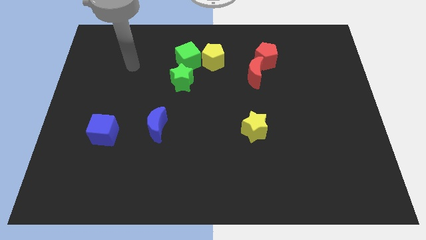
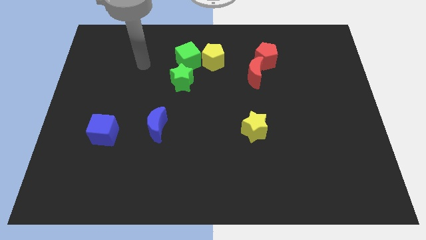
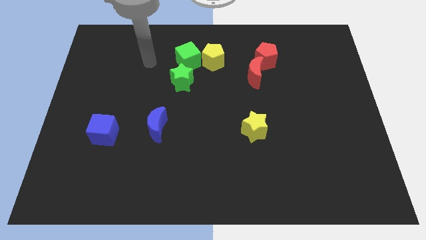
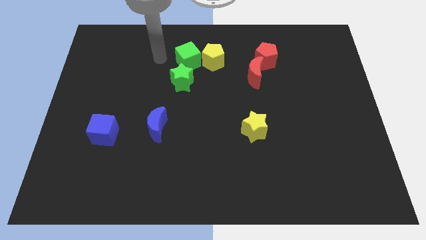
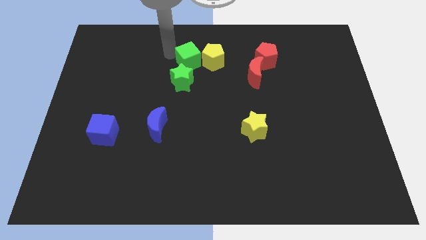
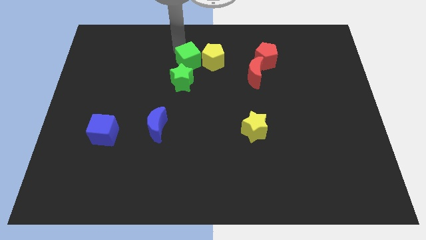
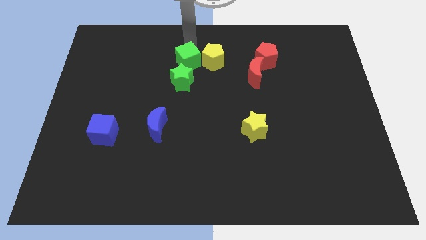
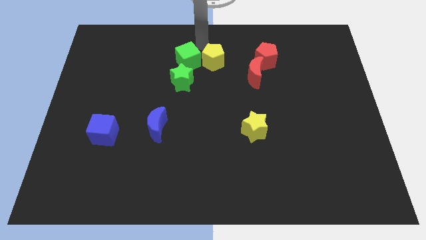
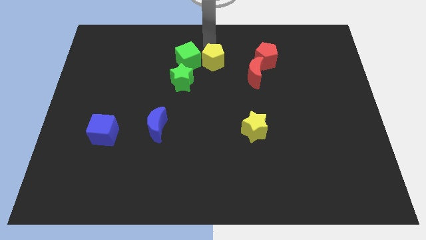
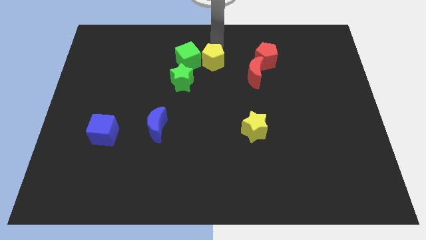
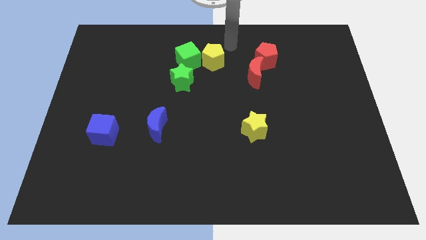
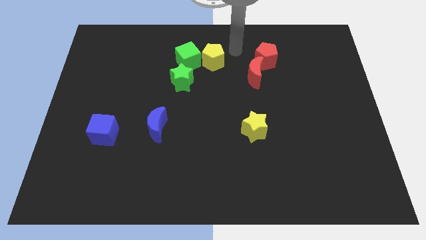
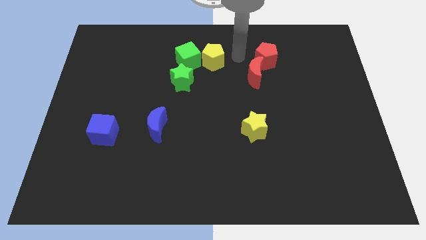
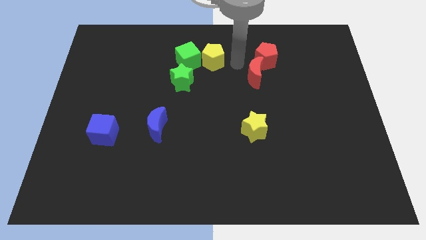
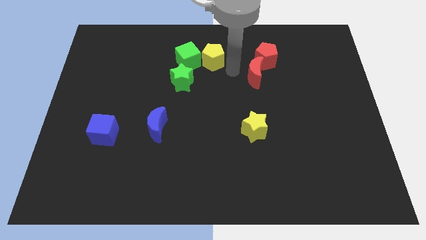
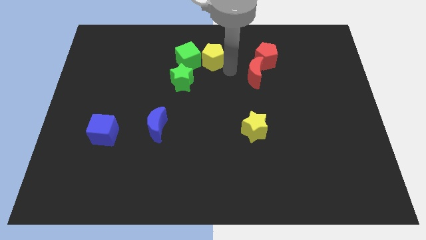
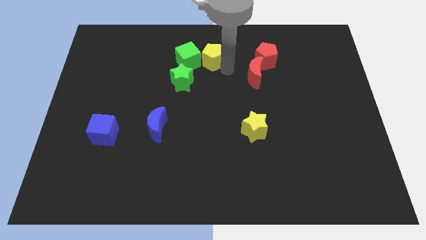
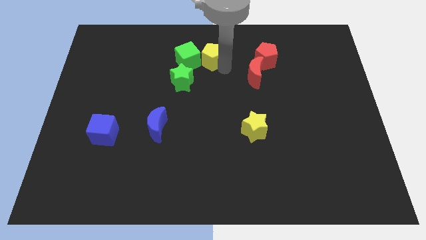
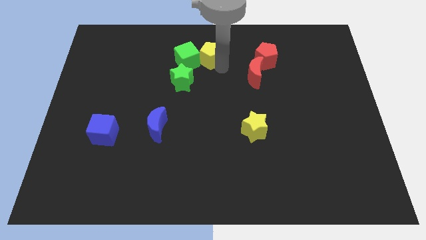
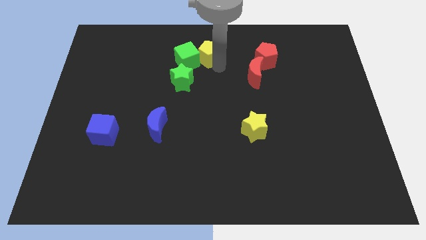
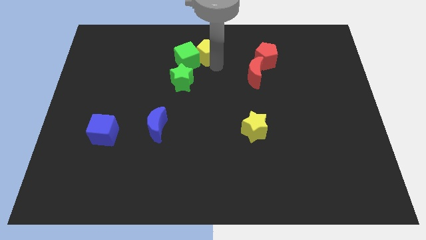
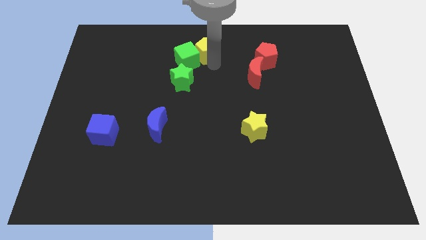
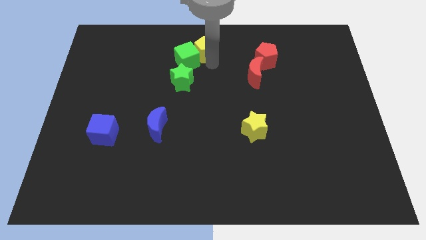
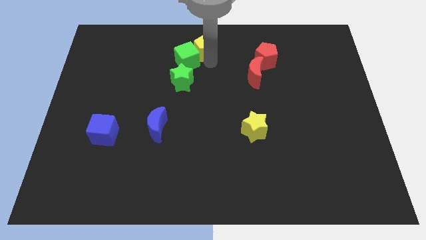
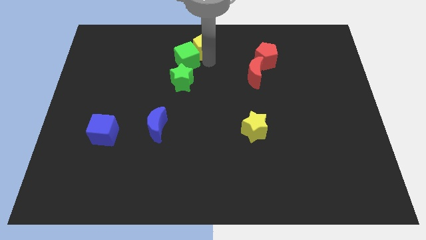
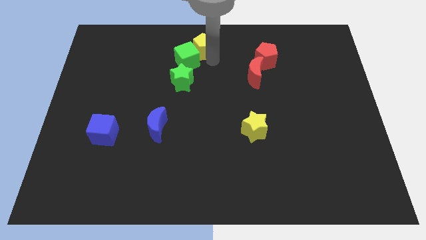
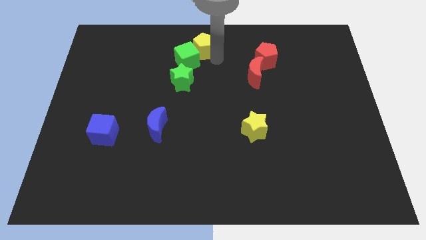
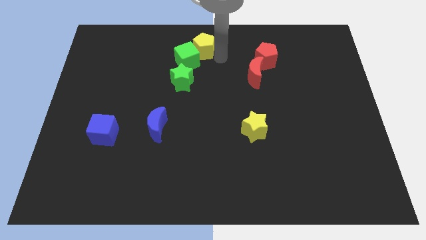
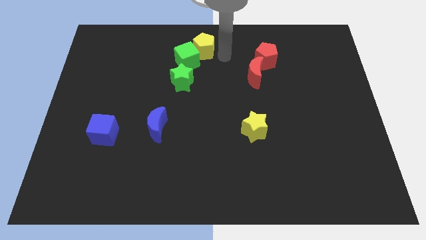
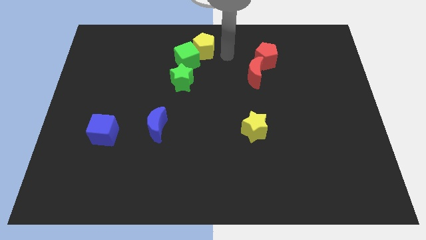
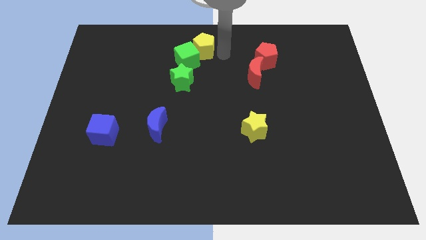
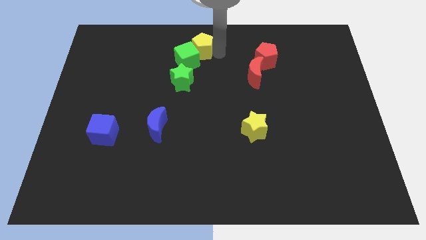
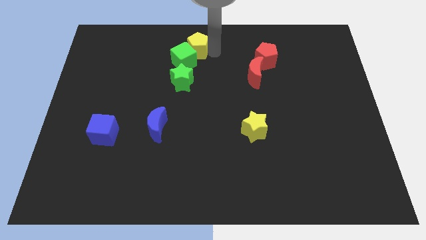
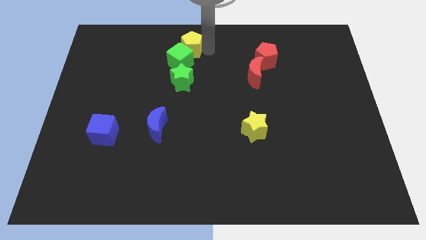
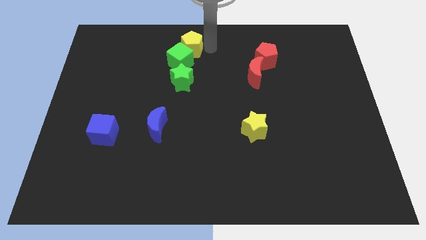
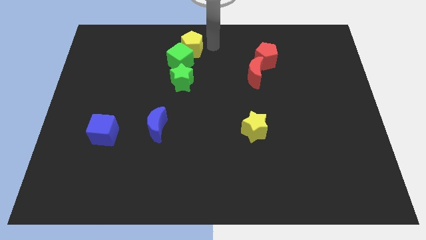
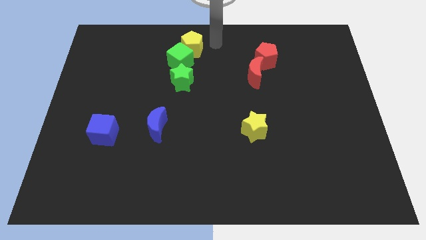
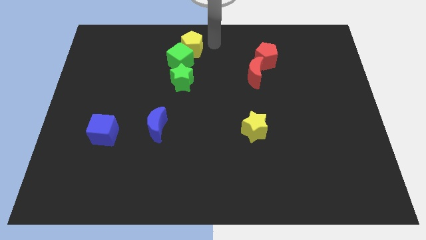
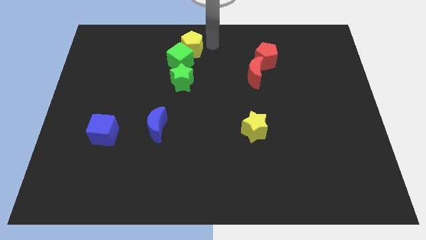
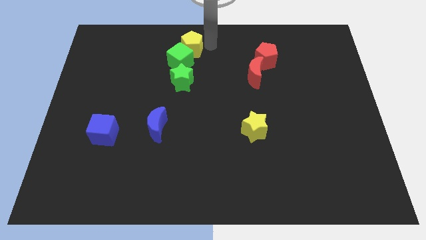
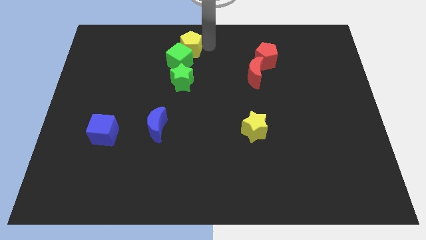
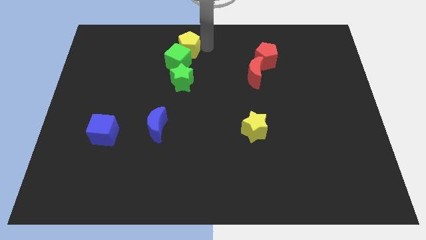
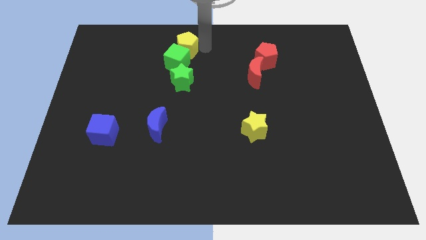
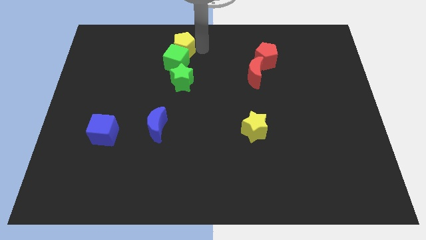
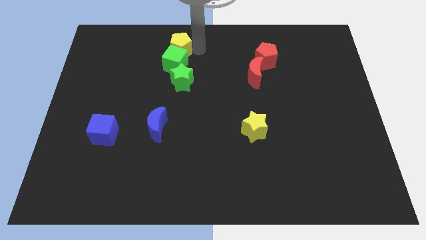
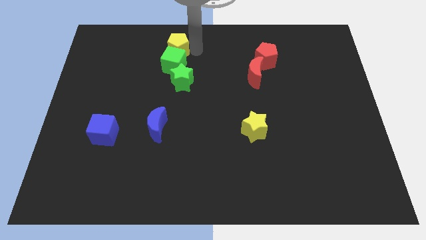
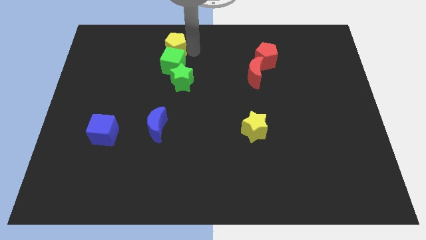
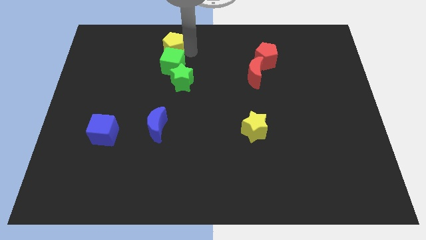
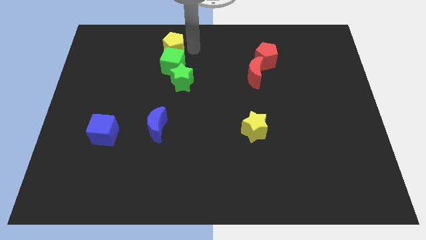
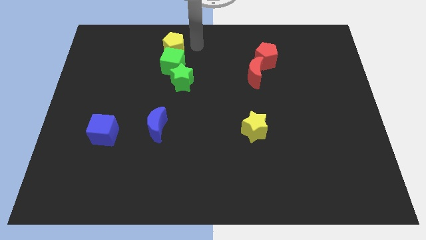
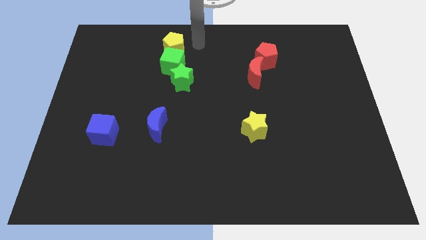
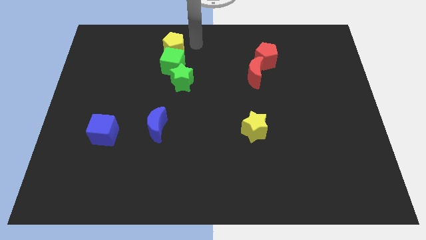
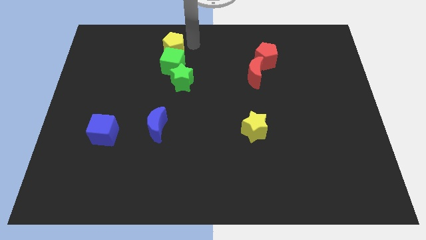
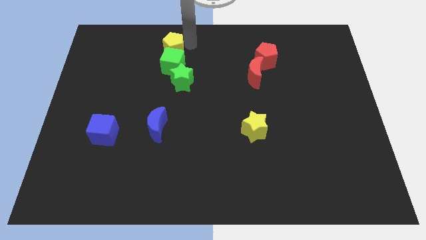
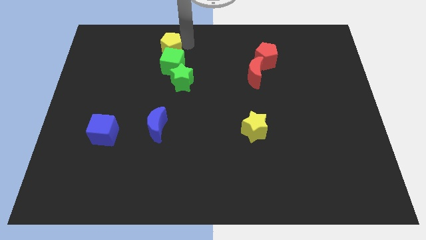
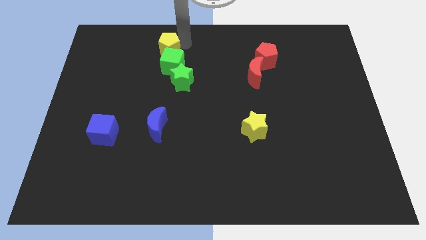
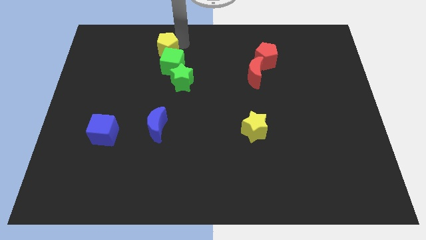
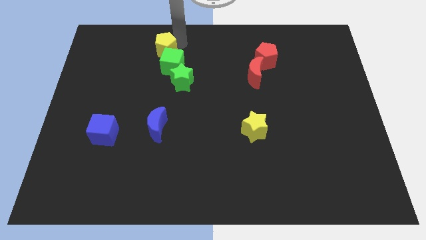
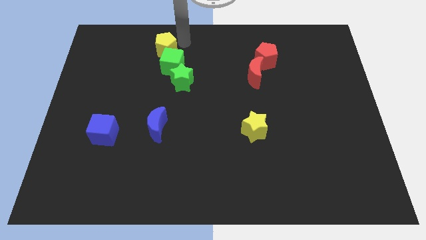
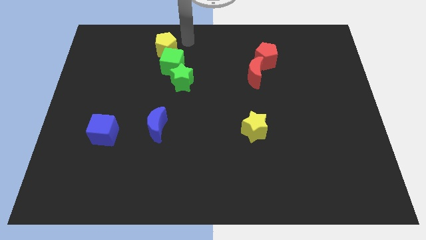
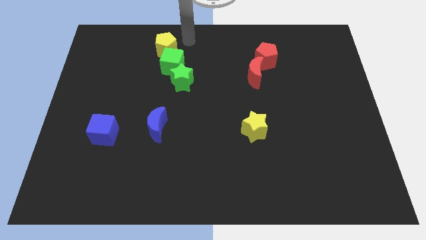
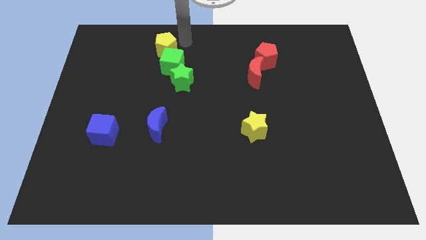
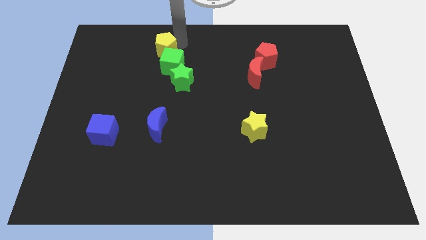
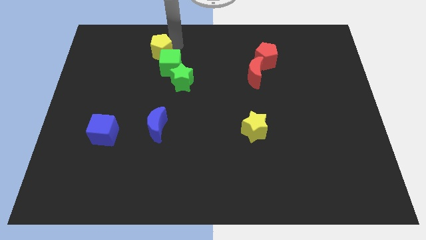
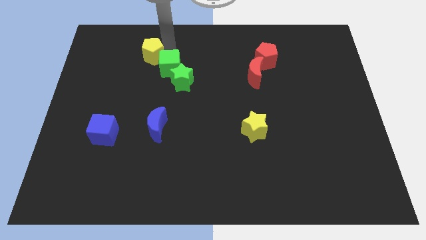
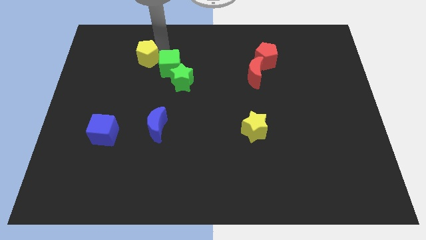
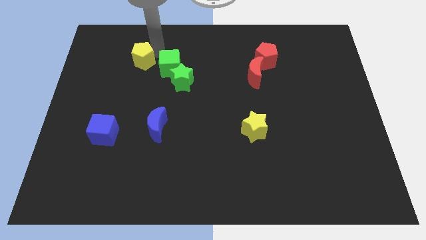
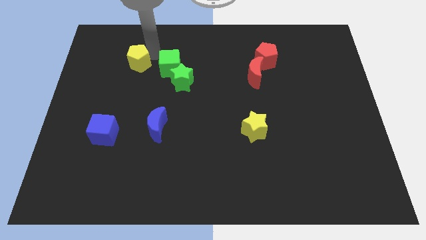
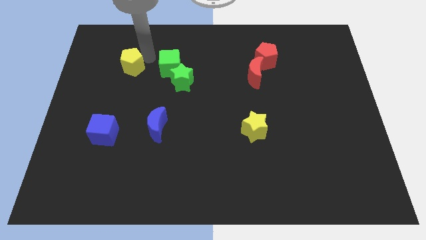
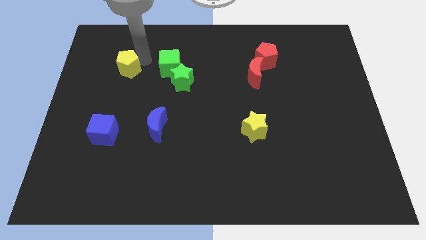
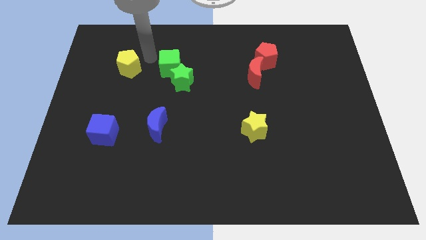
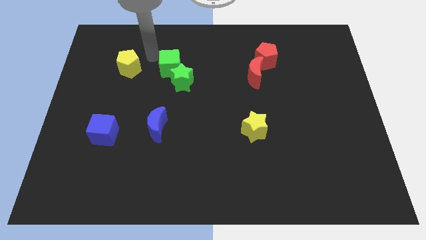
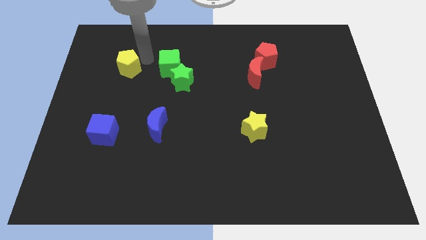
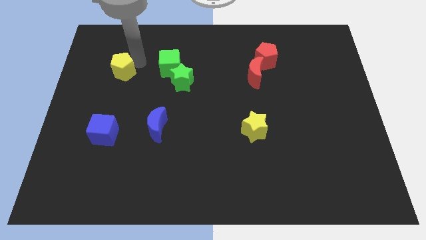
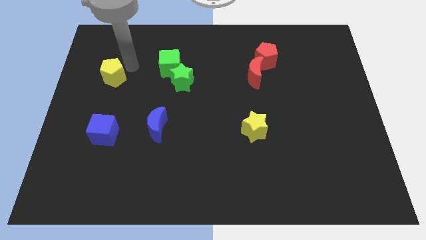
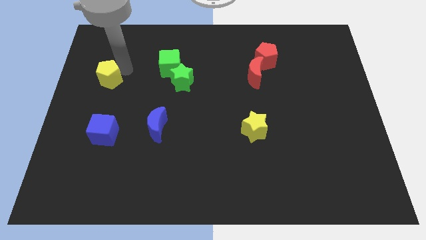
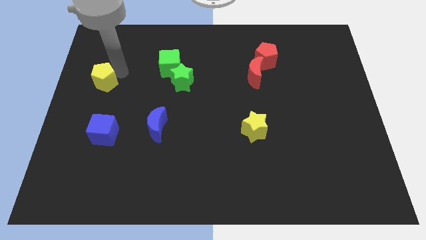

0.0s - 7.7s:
slide the yellow pentagon to the center left
